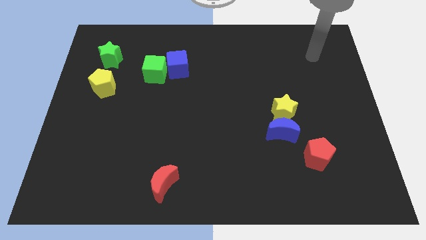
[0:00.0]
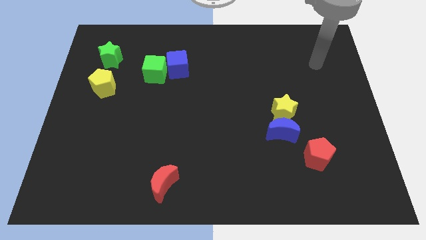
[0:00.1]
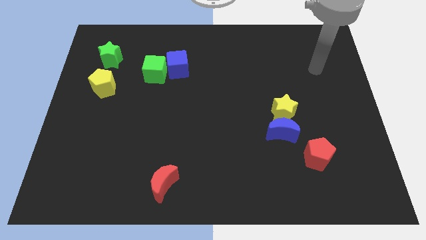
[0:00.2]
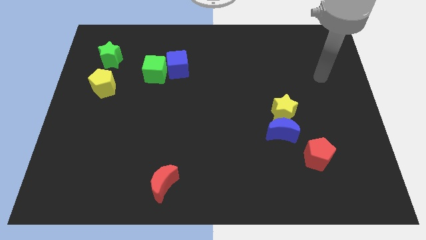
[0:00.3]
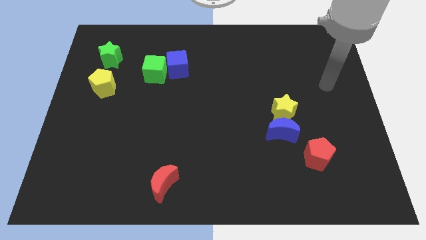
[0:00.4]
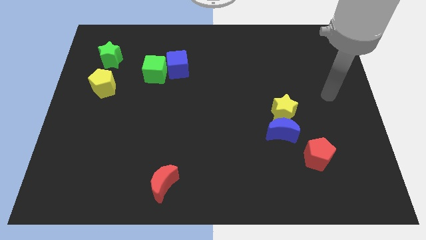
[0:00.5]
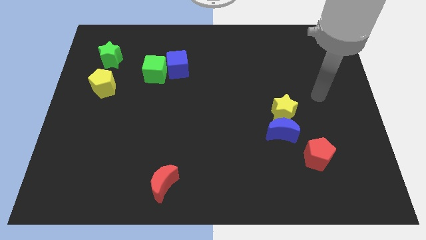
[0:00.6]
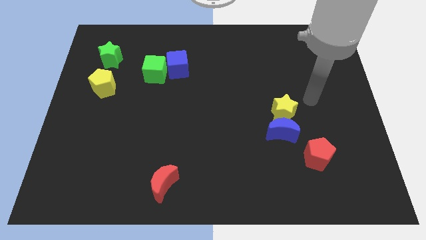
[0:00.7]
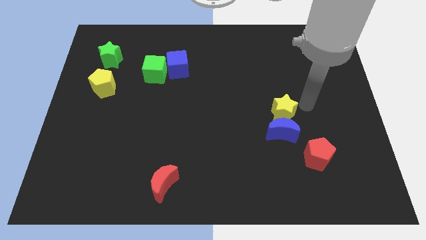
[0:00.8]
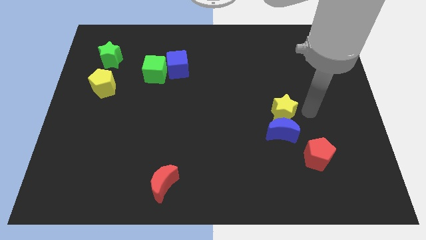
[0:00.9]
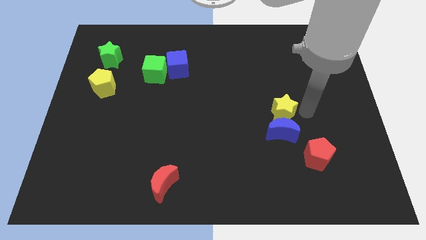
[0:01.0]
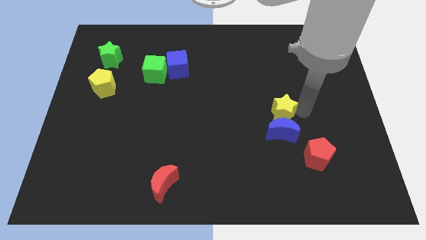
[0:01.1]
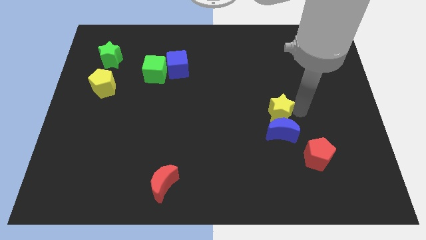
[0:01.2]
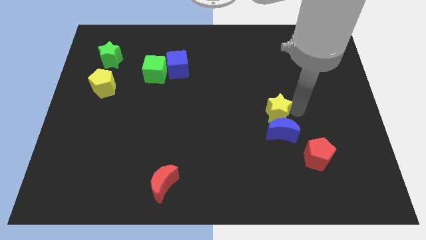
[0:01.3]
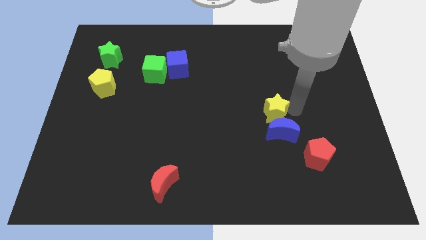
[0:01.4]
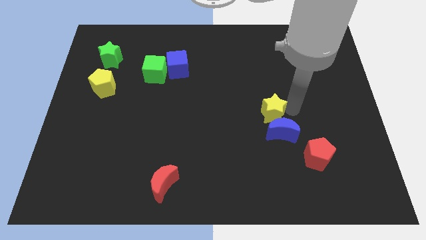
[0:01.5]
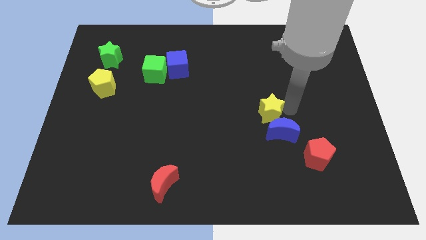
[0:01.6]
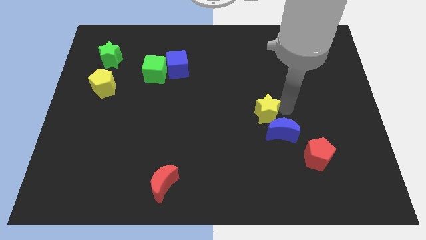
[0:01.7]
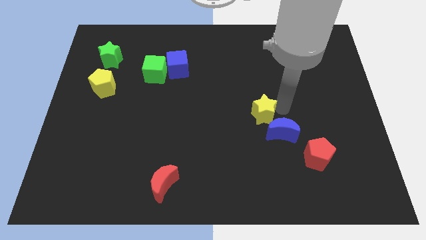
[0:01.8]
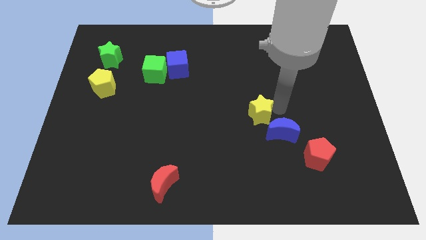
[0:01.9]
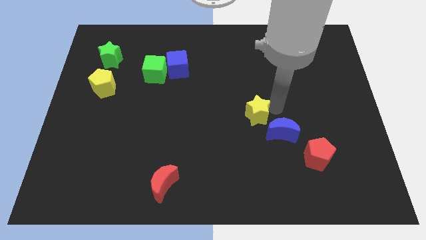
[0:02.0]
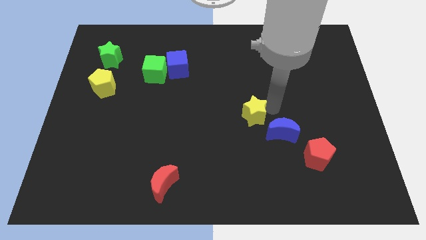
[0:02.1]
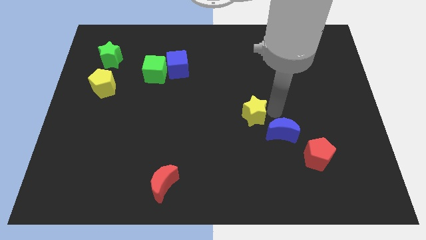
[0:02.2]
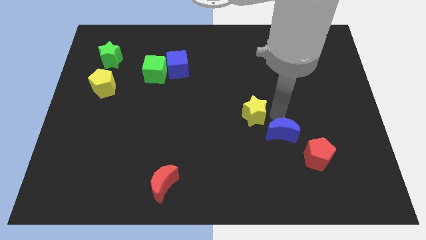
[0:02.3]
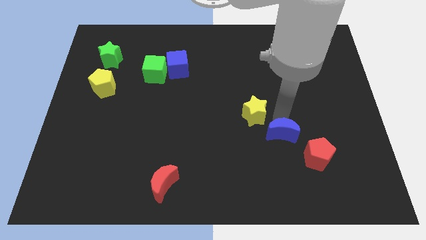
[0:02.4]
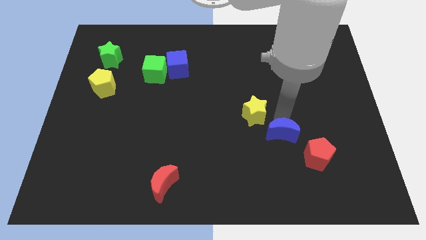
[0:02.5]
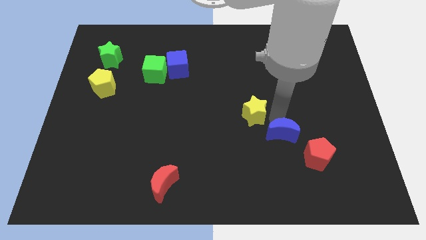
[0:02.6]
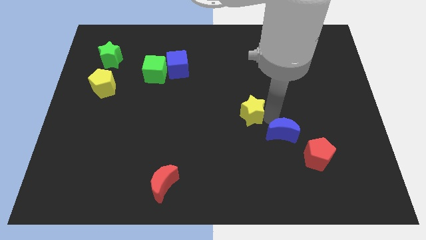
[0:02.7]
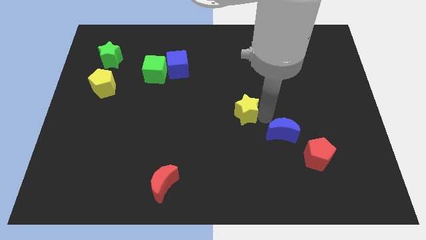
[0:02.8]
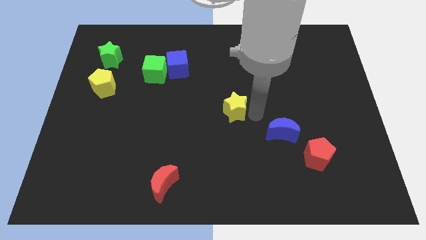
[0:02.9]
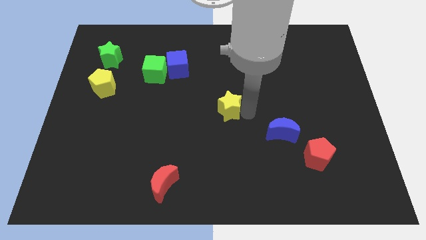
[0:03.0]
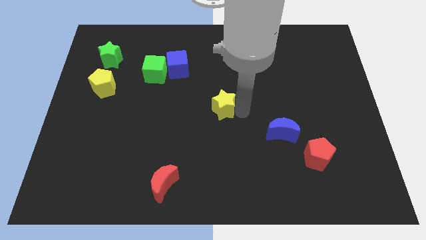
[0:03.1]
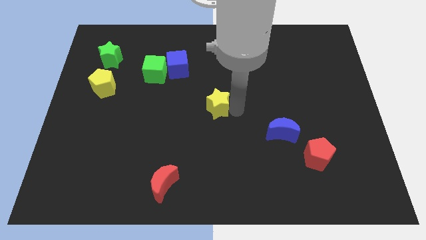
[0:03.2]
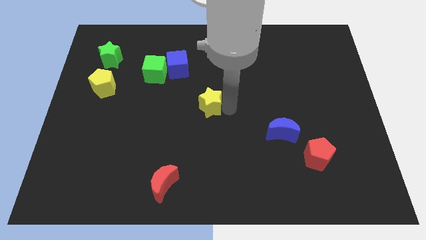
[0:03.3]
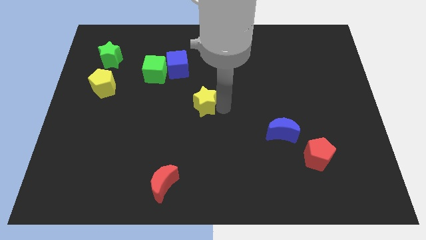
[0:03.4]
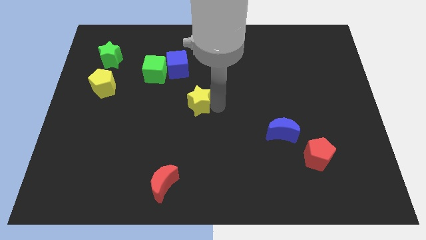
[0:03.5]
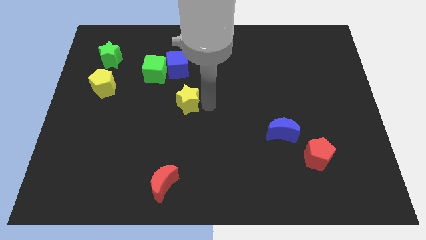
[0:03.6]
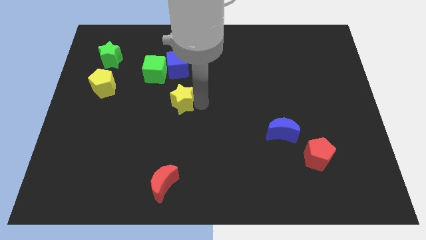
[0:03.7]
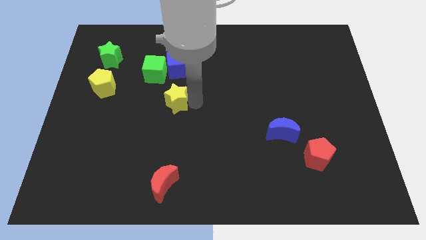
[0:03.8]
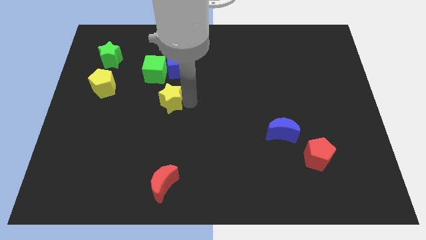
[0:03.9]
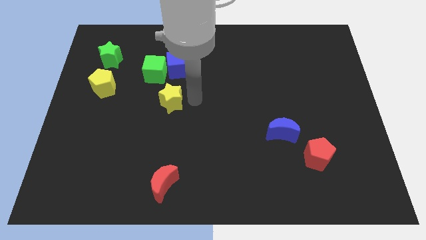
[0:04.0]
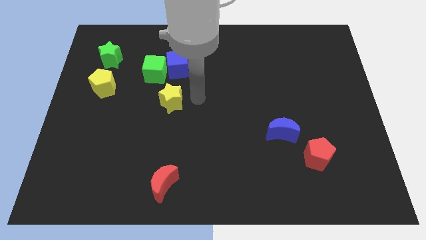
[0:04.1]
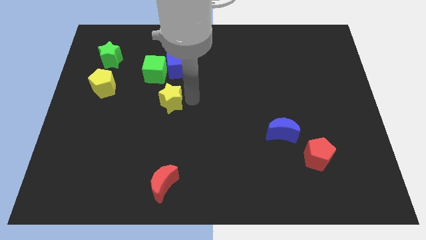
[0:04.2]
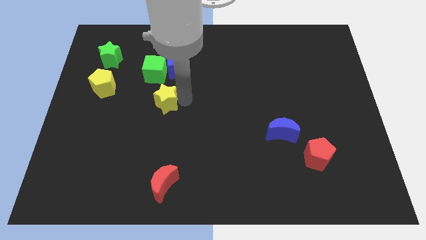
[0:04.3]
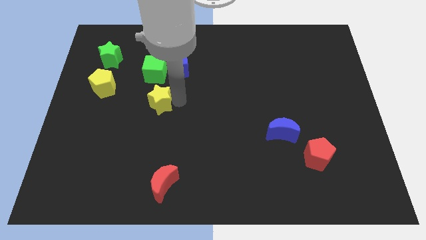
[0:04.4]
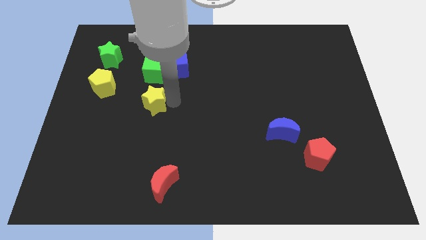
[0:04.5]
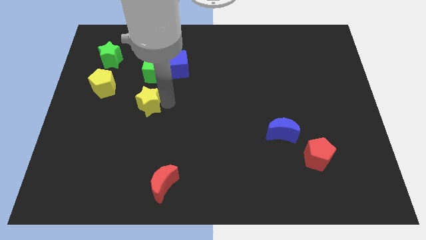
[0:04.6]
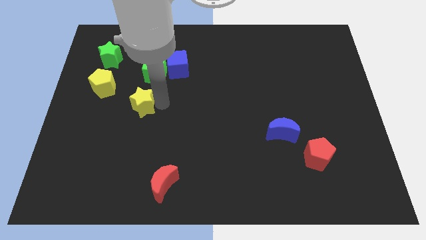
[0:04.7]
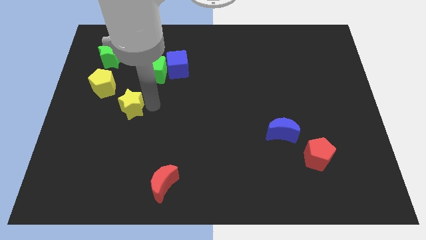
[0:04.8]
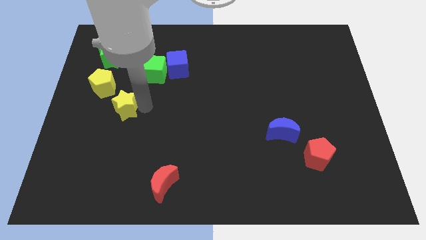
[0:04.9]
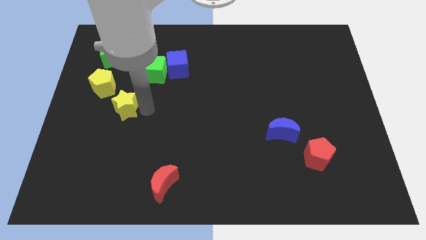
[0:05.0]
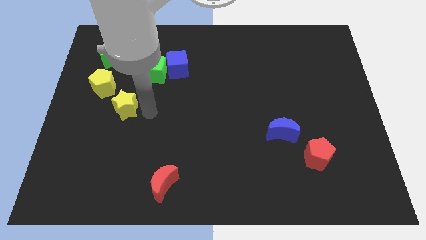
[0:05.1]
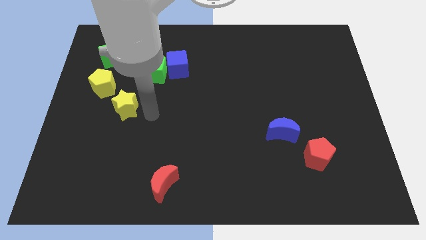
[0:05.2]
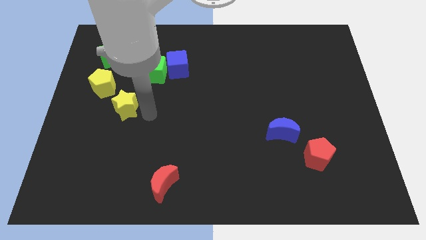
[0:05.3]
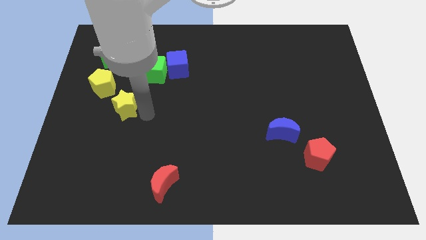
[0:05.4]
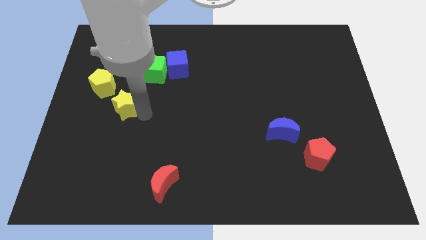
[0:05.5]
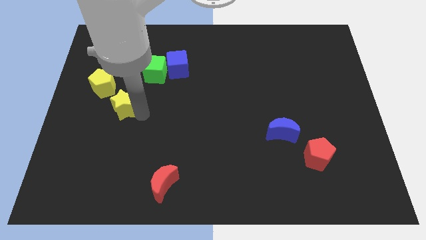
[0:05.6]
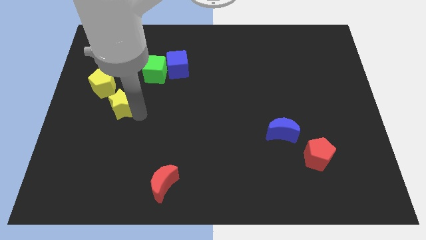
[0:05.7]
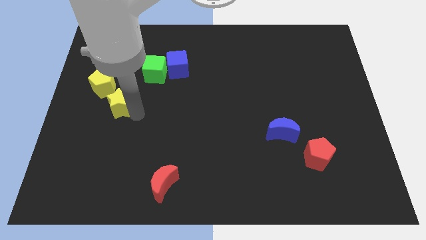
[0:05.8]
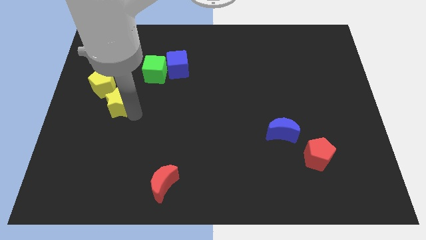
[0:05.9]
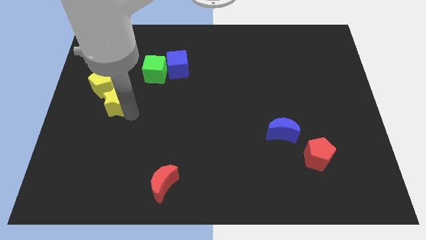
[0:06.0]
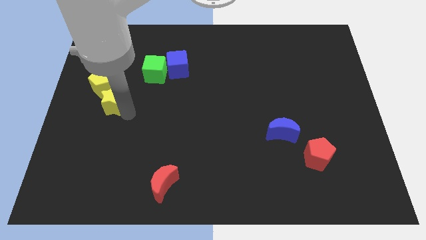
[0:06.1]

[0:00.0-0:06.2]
move the yellow star to the bottom side of the green star
